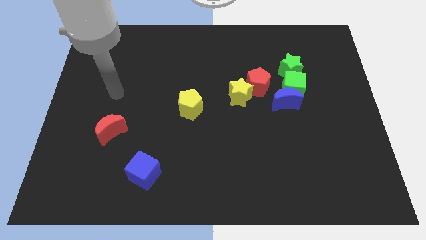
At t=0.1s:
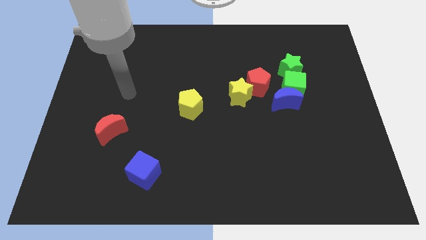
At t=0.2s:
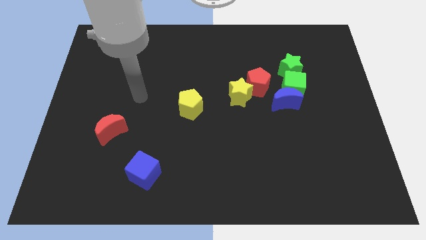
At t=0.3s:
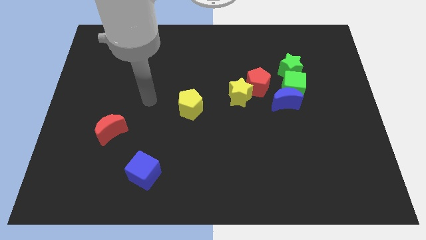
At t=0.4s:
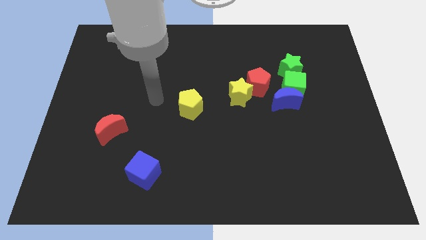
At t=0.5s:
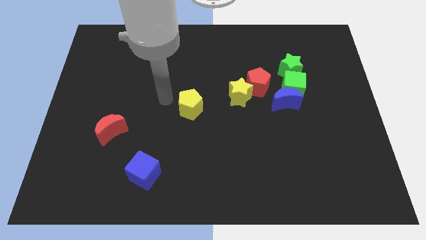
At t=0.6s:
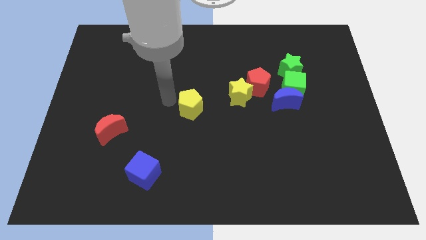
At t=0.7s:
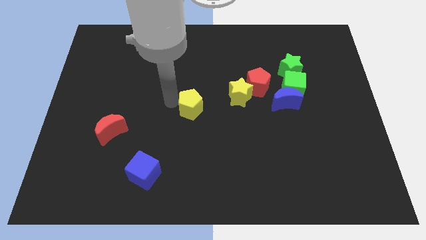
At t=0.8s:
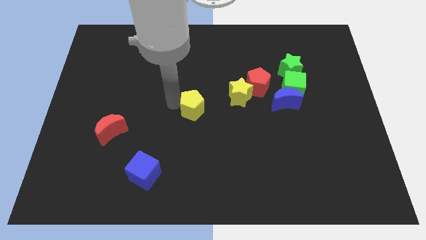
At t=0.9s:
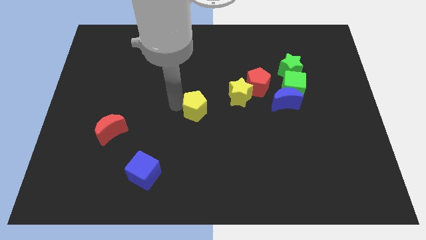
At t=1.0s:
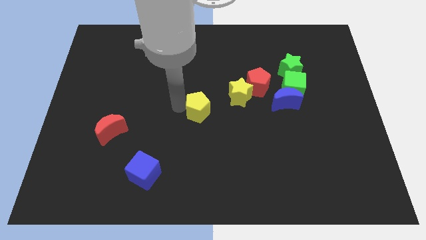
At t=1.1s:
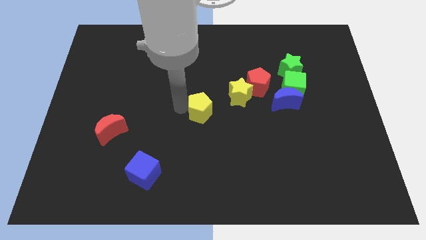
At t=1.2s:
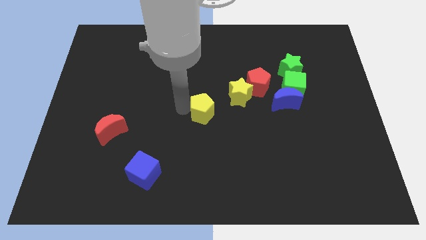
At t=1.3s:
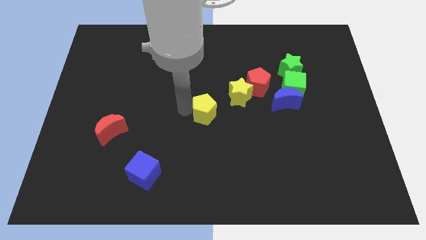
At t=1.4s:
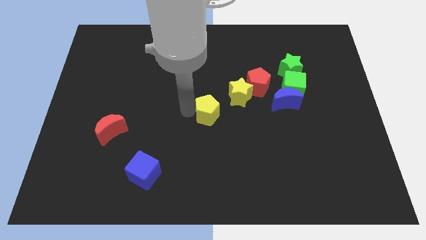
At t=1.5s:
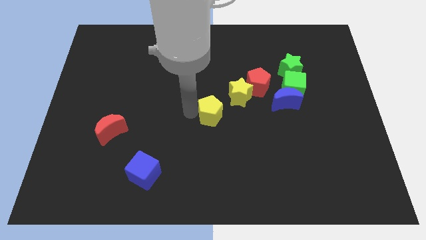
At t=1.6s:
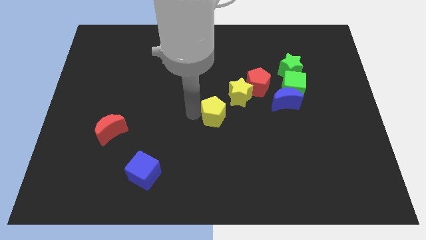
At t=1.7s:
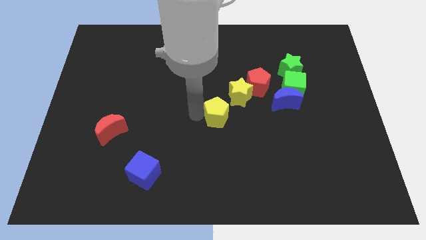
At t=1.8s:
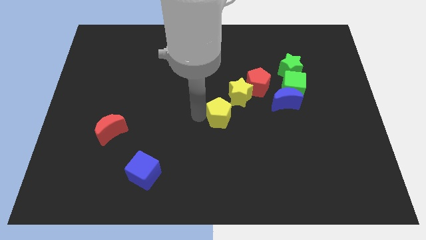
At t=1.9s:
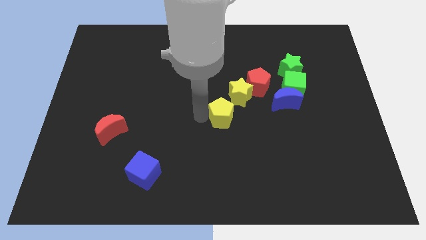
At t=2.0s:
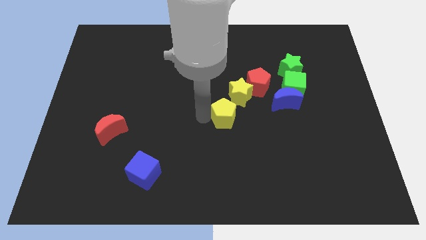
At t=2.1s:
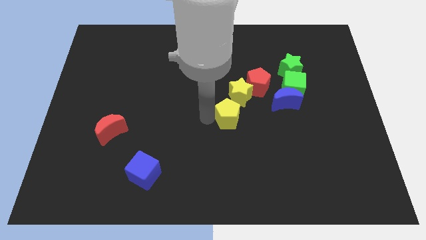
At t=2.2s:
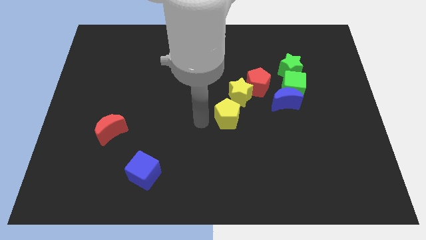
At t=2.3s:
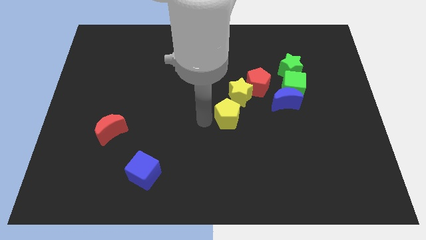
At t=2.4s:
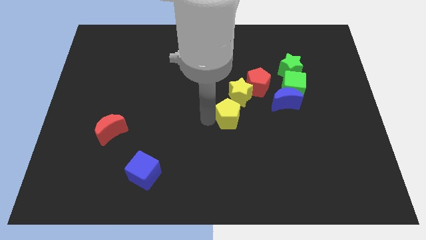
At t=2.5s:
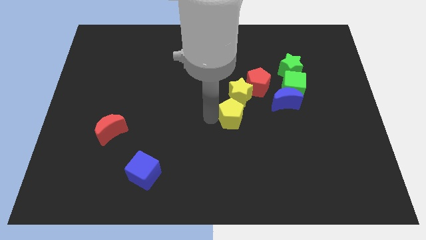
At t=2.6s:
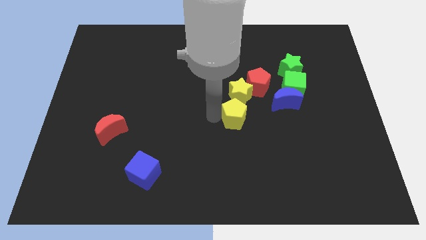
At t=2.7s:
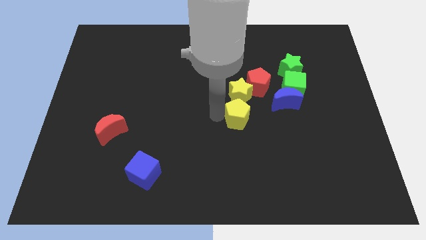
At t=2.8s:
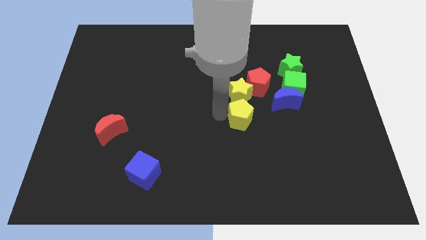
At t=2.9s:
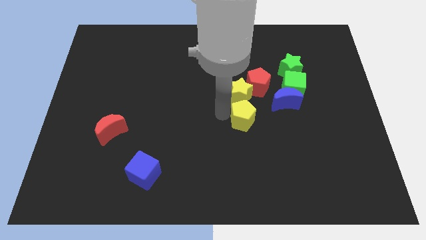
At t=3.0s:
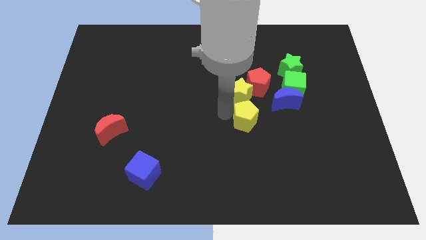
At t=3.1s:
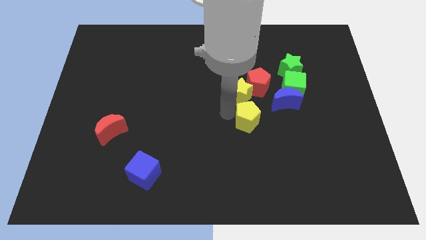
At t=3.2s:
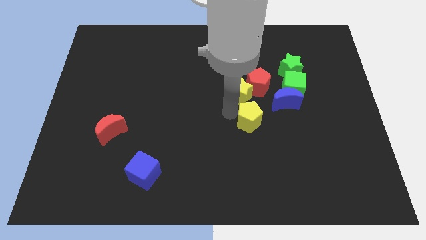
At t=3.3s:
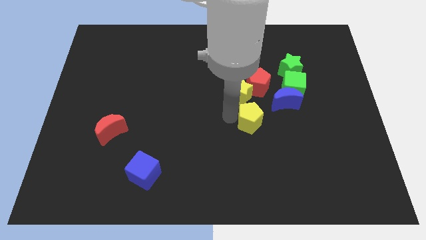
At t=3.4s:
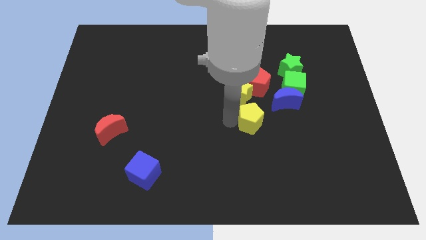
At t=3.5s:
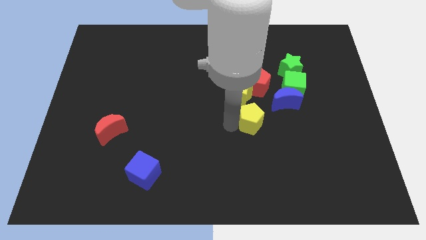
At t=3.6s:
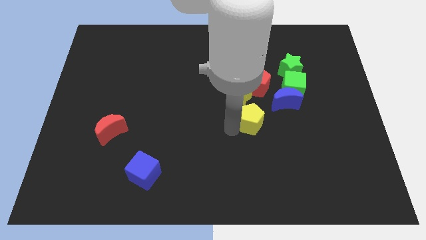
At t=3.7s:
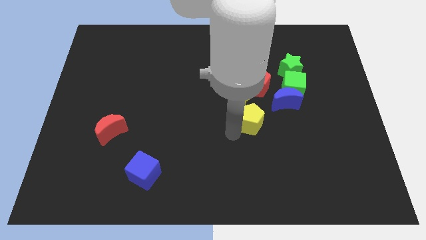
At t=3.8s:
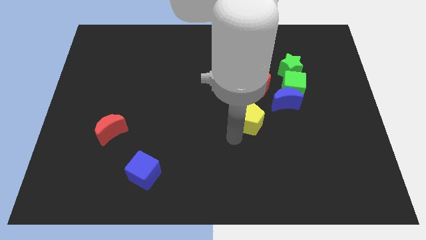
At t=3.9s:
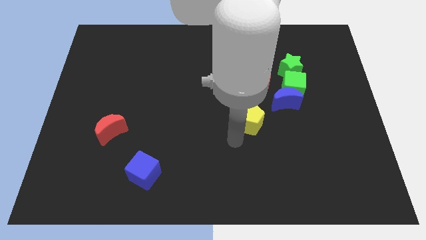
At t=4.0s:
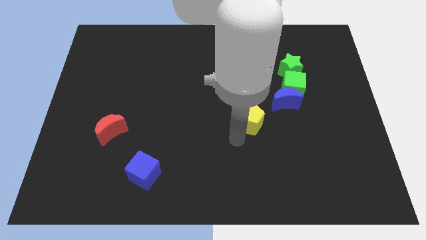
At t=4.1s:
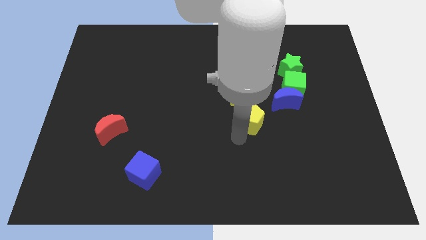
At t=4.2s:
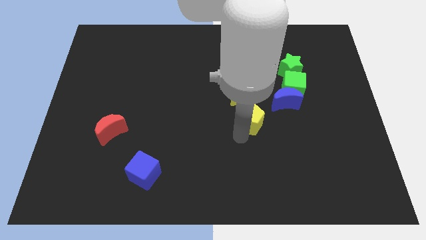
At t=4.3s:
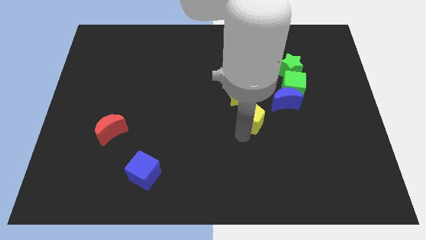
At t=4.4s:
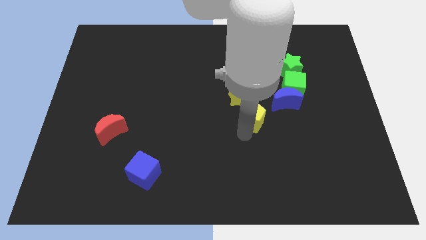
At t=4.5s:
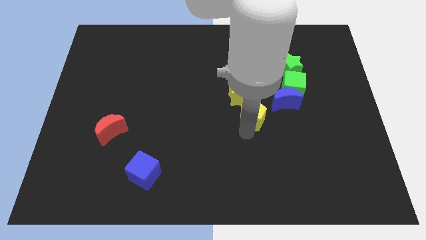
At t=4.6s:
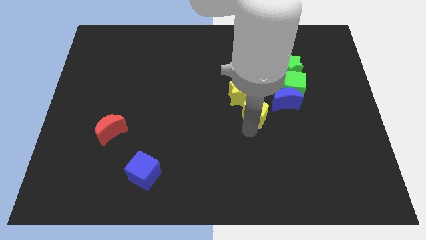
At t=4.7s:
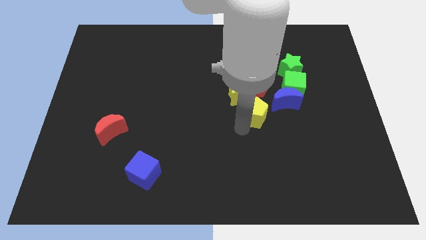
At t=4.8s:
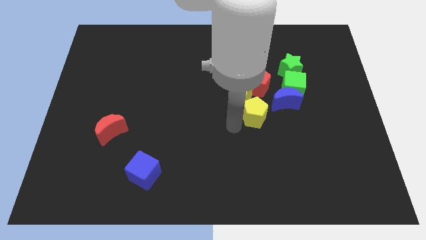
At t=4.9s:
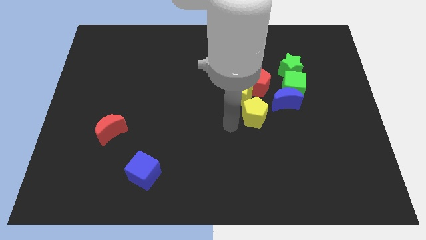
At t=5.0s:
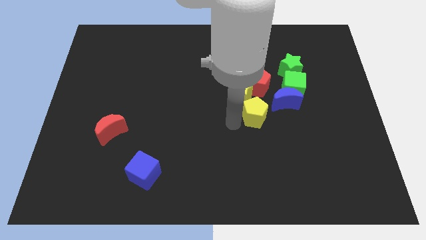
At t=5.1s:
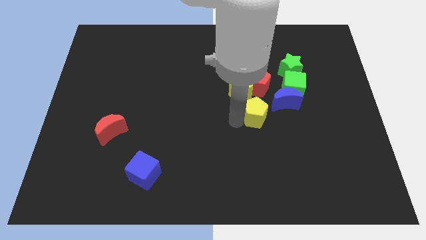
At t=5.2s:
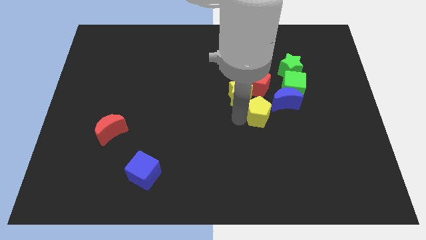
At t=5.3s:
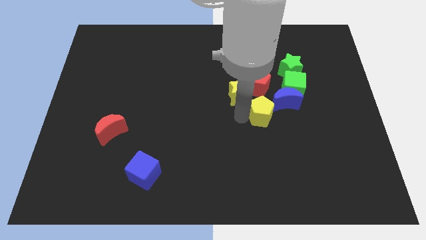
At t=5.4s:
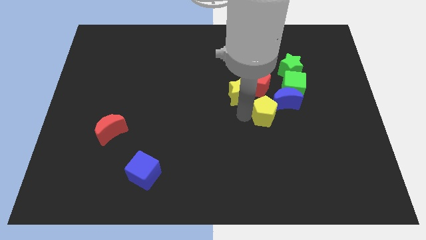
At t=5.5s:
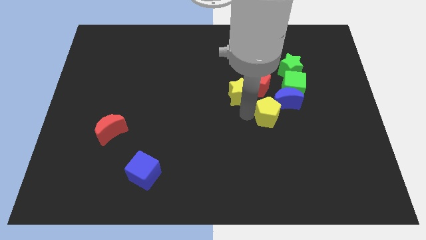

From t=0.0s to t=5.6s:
push the yellow pentagon to the blue moon

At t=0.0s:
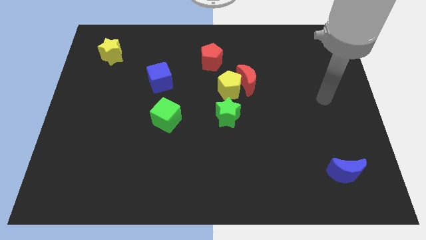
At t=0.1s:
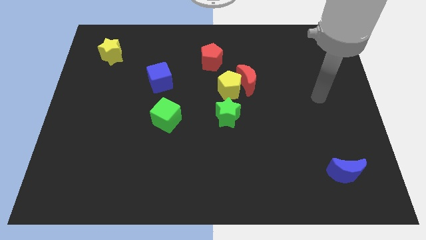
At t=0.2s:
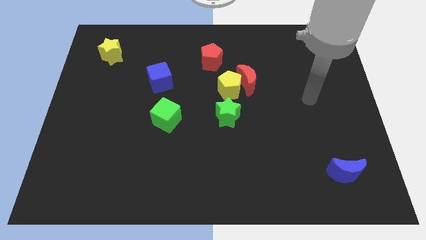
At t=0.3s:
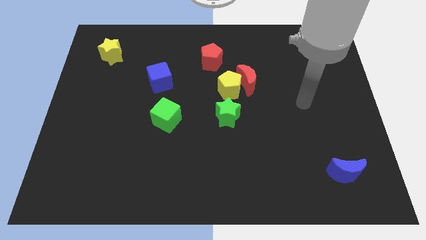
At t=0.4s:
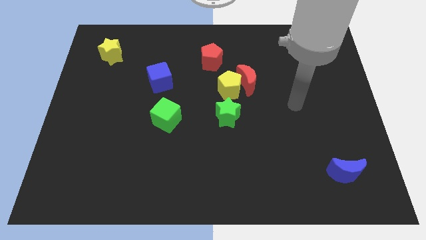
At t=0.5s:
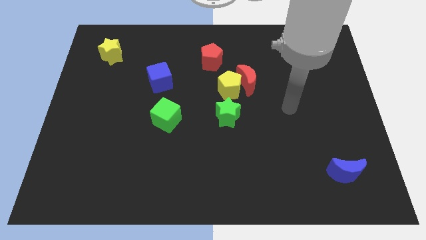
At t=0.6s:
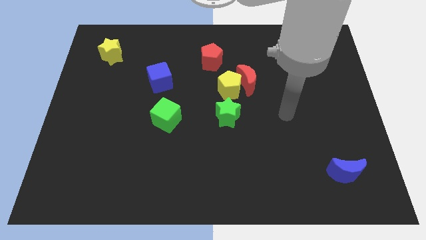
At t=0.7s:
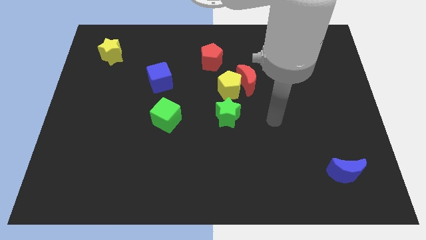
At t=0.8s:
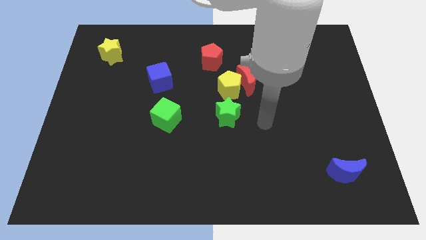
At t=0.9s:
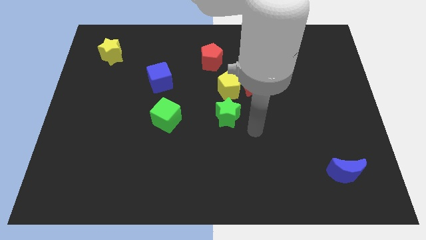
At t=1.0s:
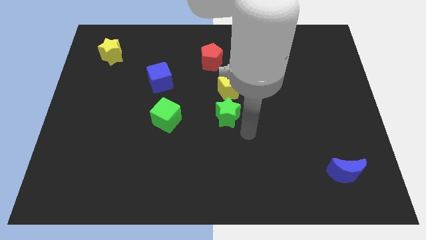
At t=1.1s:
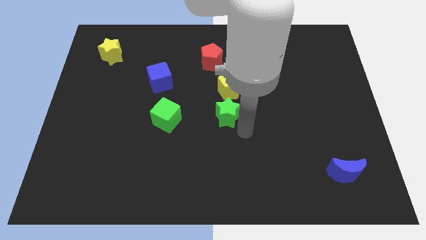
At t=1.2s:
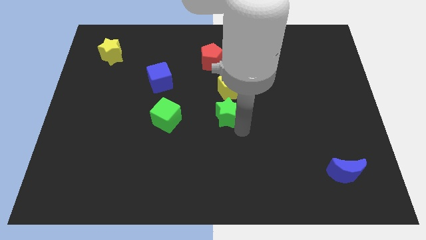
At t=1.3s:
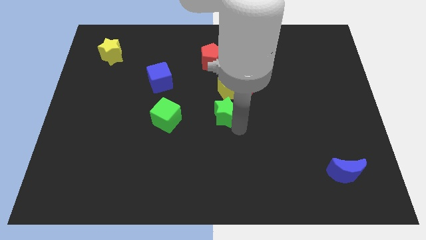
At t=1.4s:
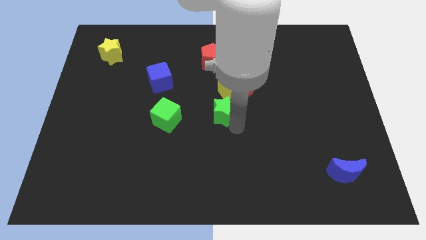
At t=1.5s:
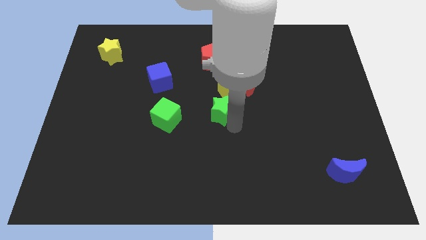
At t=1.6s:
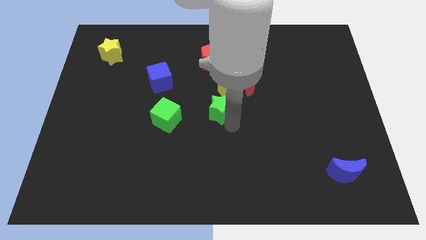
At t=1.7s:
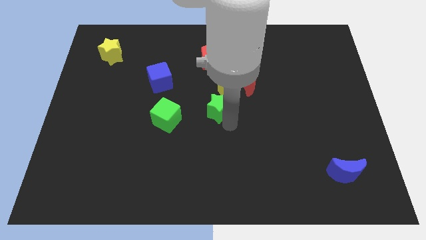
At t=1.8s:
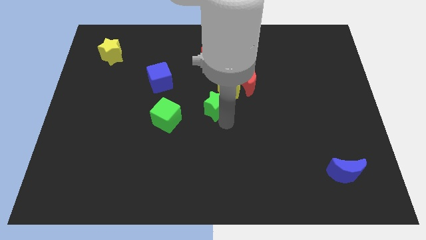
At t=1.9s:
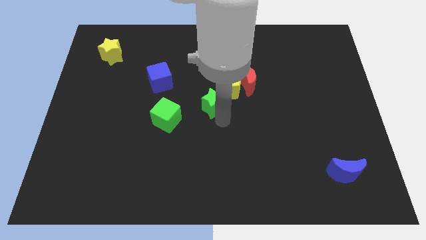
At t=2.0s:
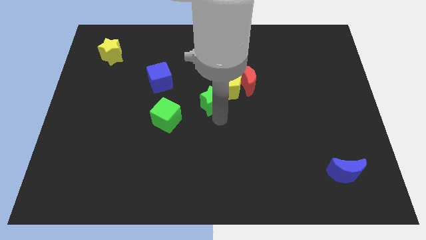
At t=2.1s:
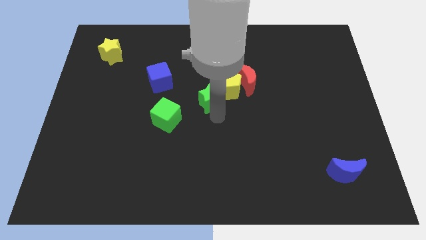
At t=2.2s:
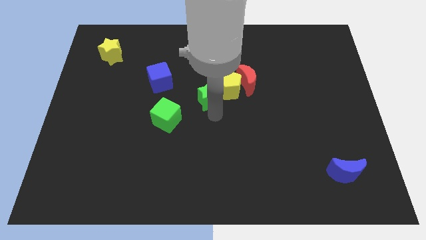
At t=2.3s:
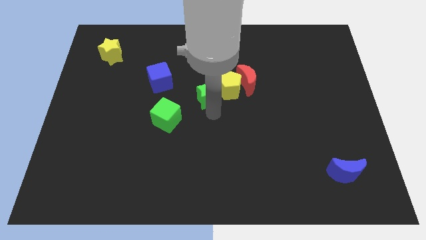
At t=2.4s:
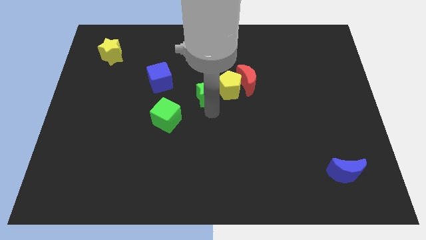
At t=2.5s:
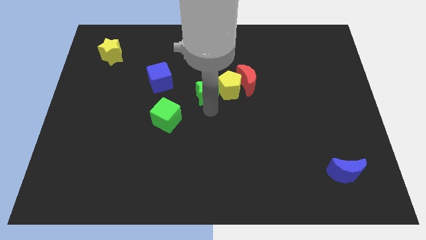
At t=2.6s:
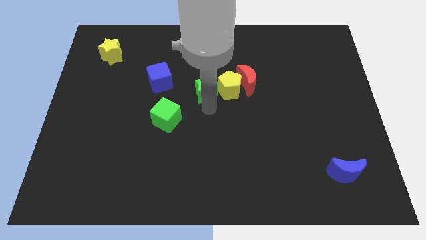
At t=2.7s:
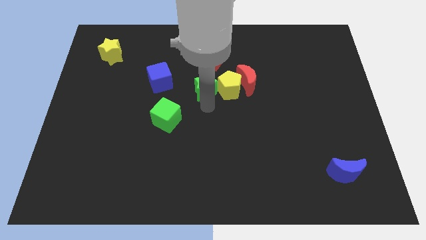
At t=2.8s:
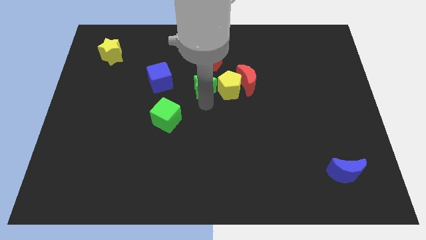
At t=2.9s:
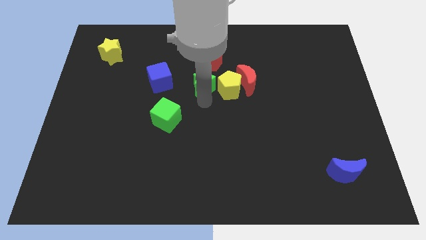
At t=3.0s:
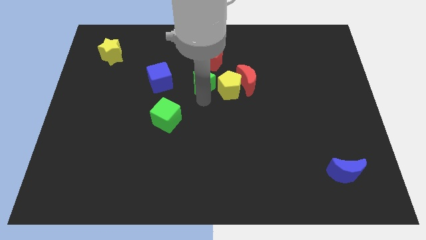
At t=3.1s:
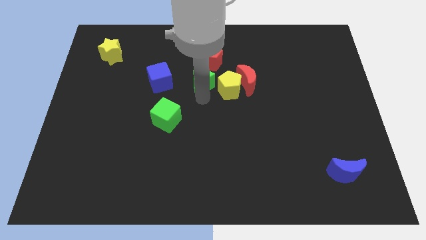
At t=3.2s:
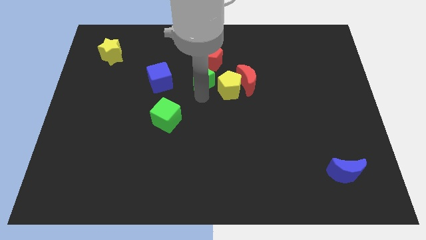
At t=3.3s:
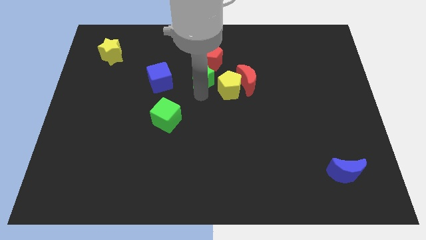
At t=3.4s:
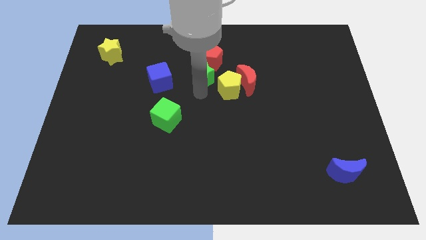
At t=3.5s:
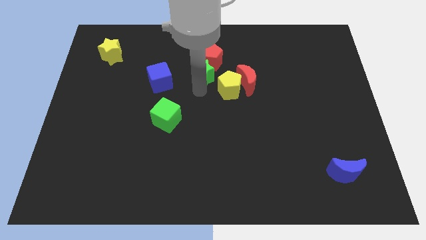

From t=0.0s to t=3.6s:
put the green star next to the red pentagon
